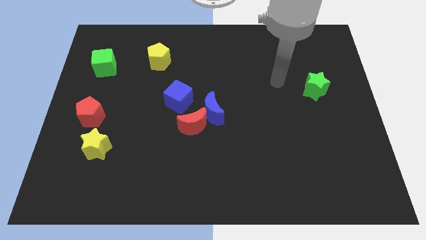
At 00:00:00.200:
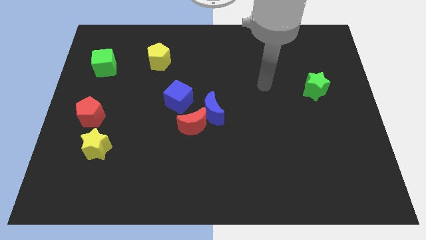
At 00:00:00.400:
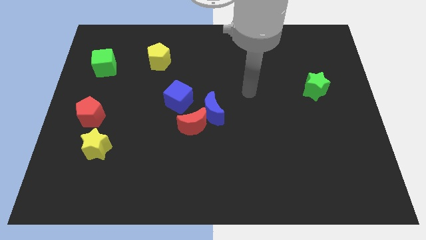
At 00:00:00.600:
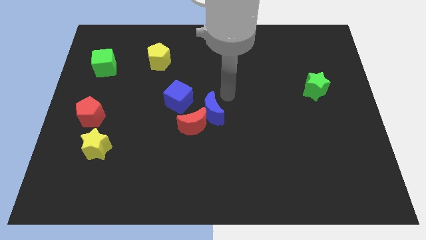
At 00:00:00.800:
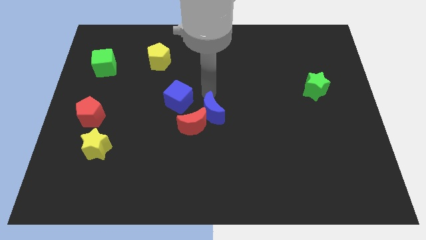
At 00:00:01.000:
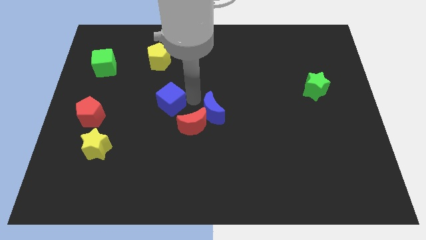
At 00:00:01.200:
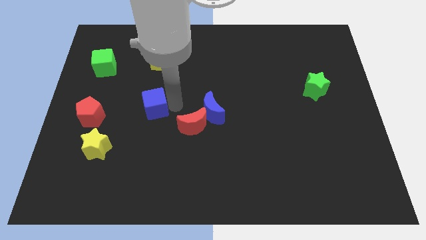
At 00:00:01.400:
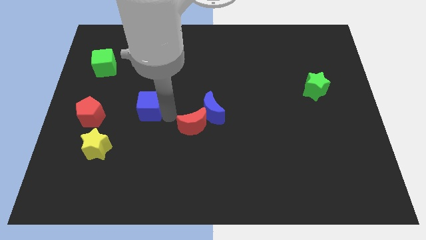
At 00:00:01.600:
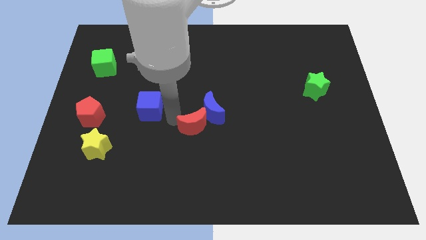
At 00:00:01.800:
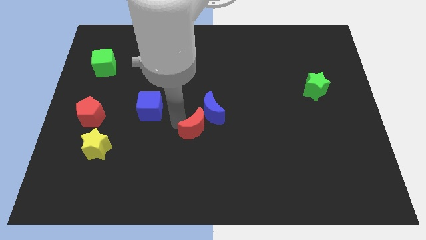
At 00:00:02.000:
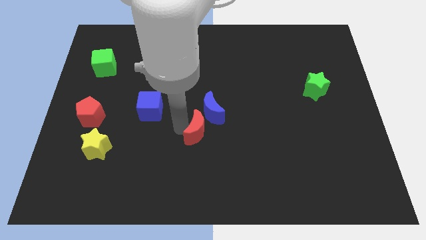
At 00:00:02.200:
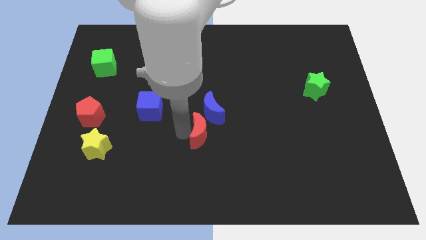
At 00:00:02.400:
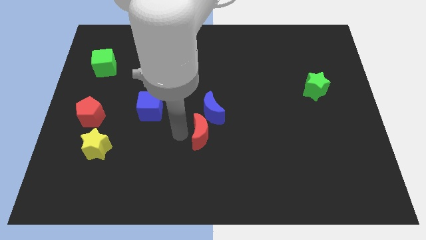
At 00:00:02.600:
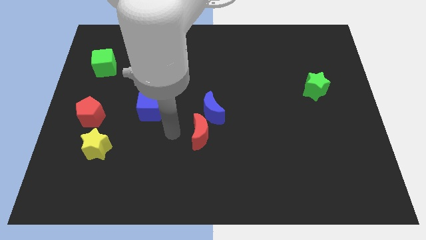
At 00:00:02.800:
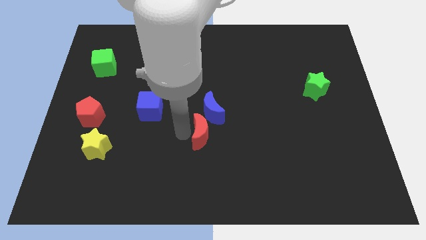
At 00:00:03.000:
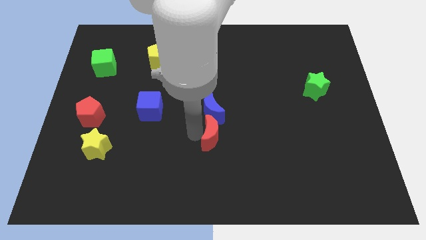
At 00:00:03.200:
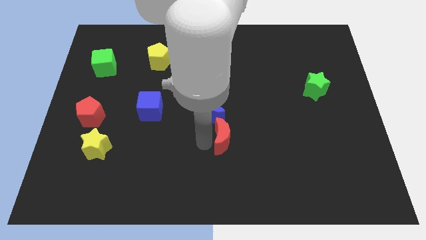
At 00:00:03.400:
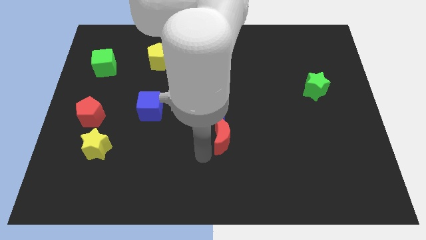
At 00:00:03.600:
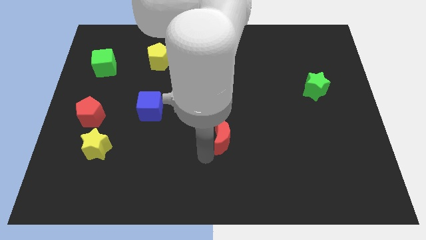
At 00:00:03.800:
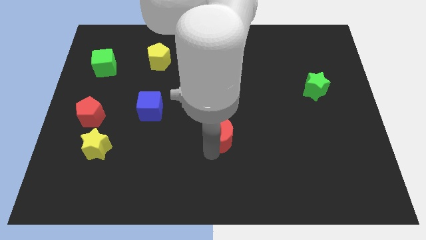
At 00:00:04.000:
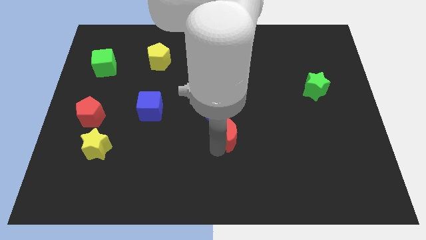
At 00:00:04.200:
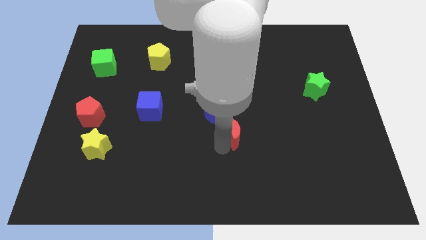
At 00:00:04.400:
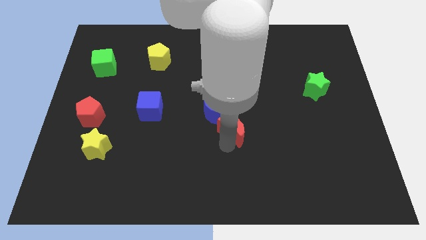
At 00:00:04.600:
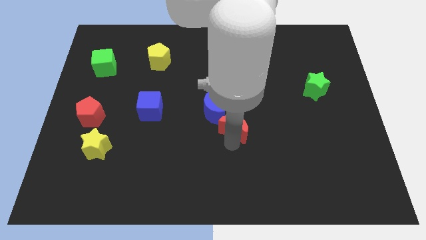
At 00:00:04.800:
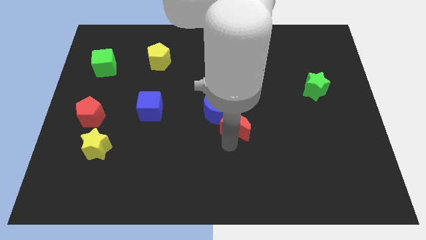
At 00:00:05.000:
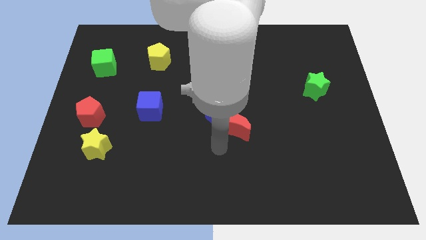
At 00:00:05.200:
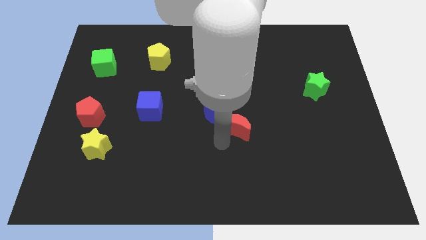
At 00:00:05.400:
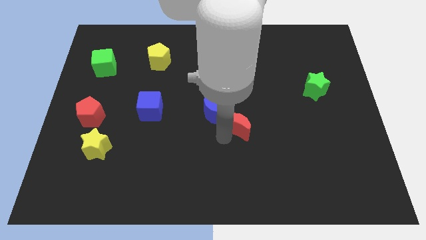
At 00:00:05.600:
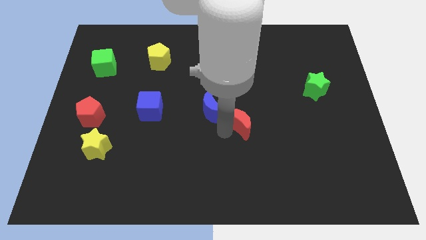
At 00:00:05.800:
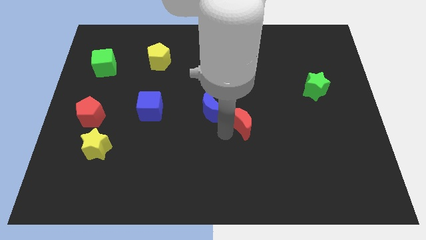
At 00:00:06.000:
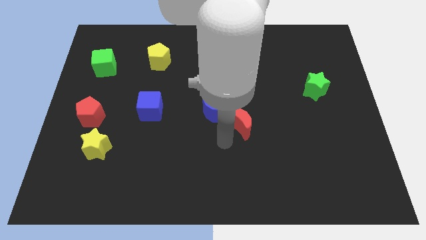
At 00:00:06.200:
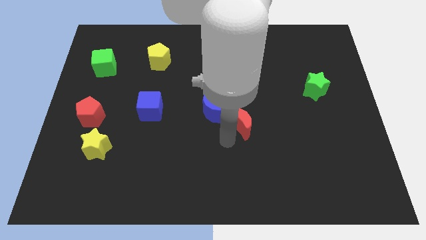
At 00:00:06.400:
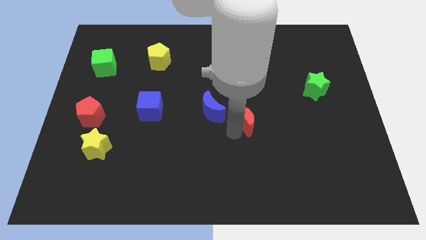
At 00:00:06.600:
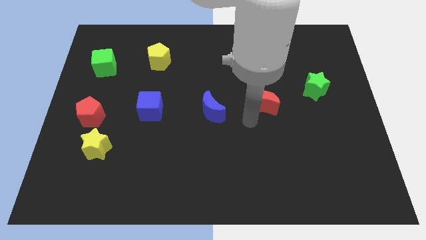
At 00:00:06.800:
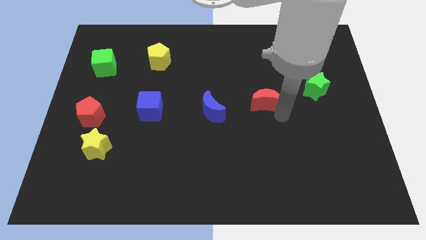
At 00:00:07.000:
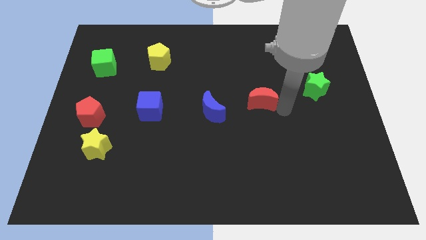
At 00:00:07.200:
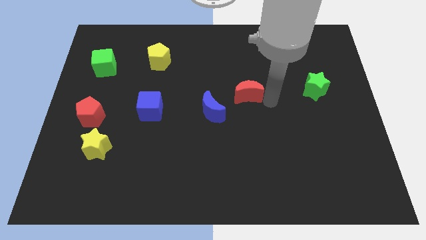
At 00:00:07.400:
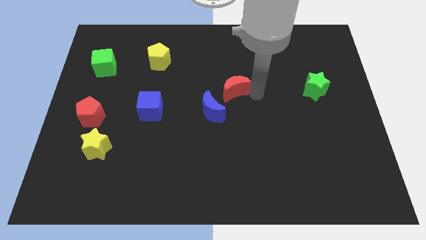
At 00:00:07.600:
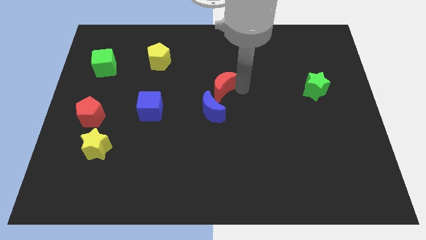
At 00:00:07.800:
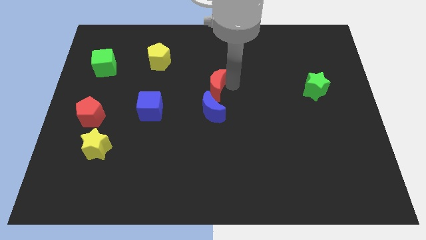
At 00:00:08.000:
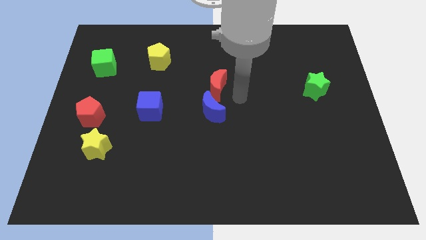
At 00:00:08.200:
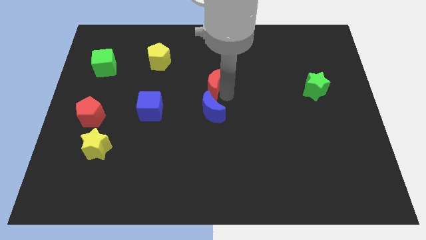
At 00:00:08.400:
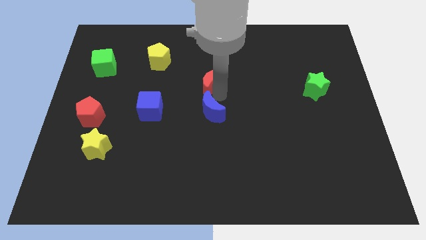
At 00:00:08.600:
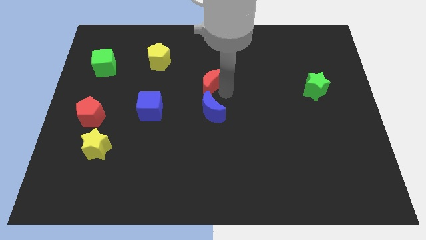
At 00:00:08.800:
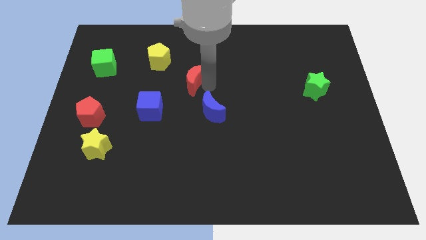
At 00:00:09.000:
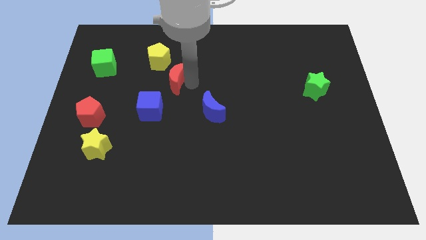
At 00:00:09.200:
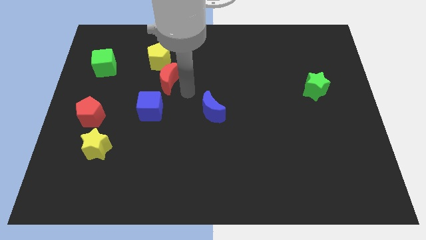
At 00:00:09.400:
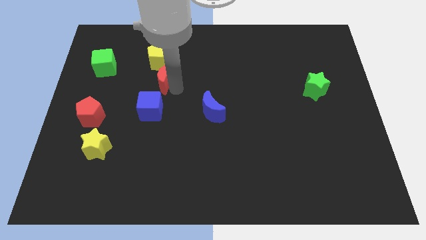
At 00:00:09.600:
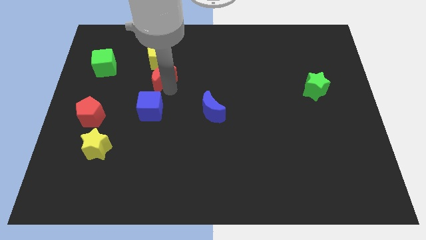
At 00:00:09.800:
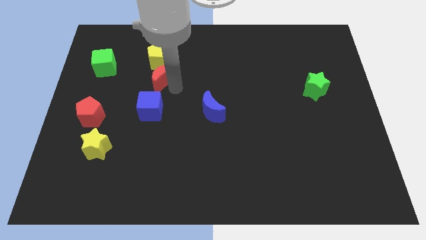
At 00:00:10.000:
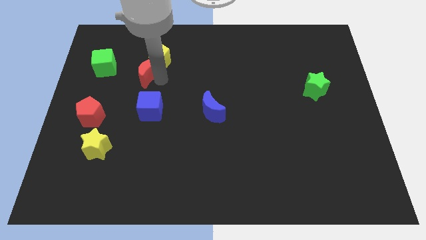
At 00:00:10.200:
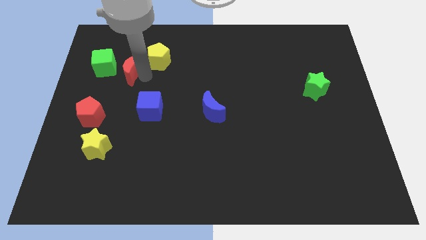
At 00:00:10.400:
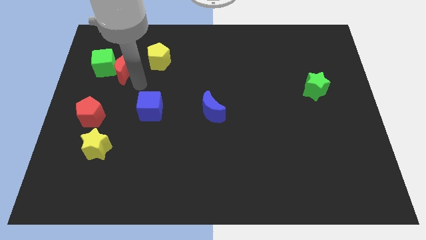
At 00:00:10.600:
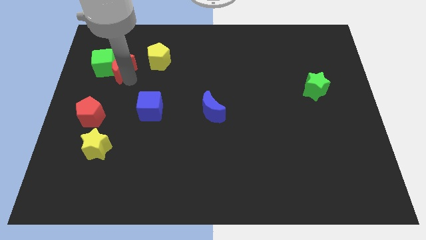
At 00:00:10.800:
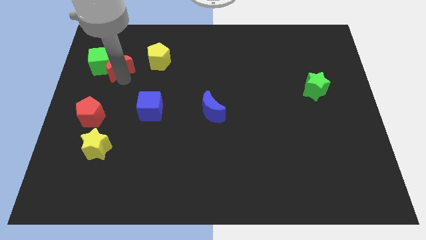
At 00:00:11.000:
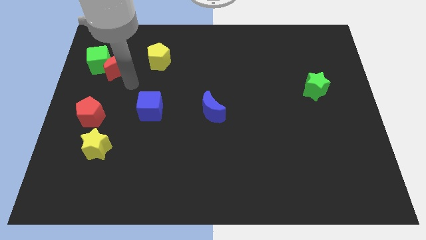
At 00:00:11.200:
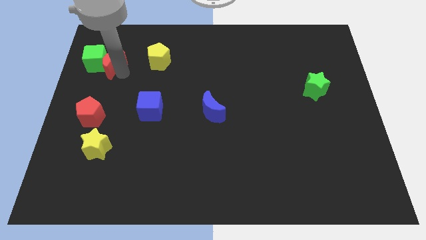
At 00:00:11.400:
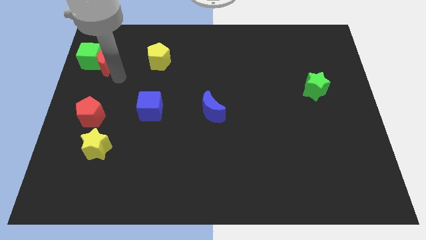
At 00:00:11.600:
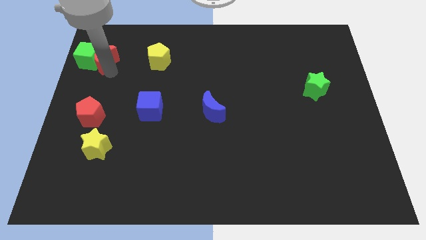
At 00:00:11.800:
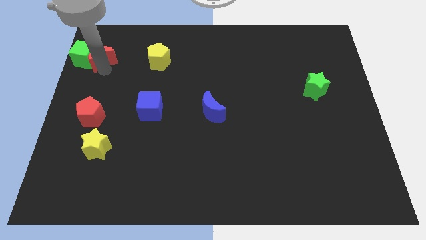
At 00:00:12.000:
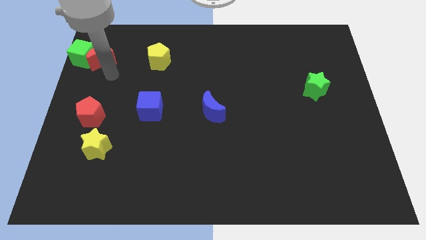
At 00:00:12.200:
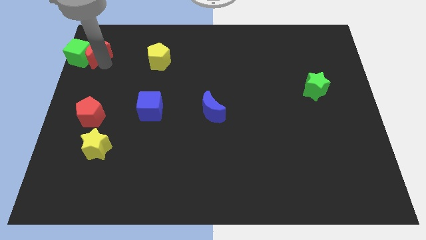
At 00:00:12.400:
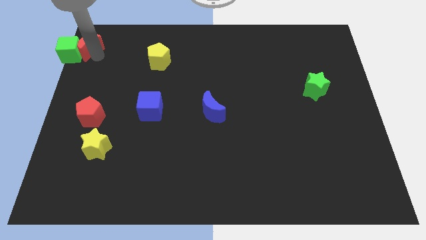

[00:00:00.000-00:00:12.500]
slide the red moon to the top left corner
